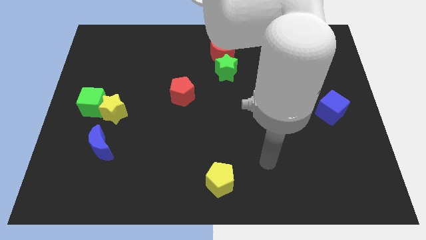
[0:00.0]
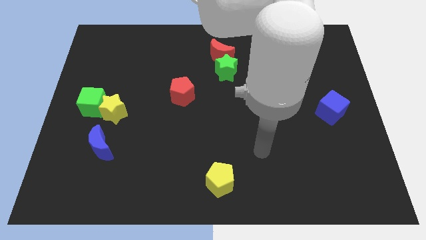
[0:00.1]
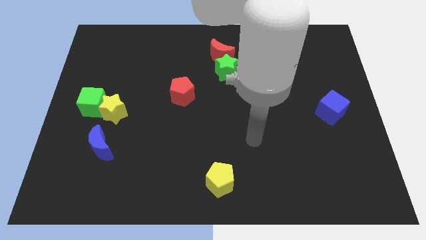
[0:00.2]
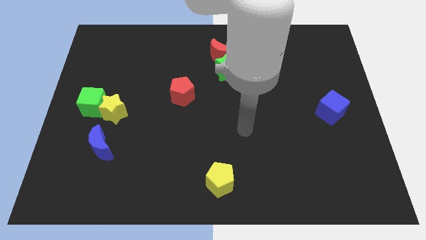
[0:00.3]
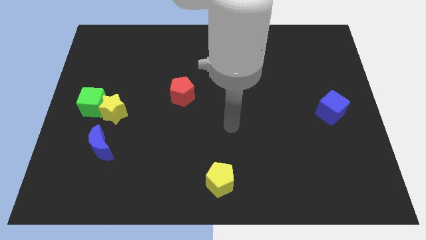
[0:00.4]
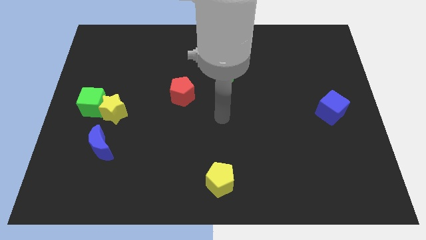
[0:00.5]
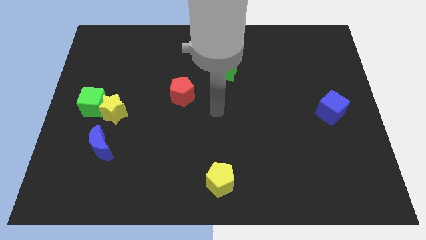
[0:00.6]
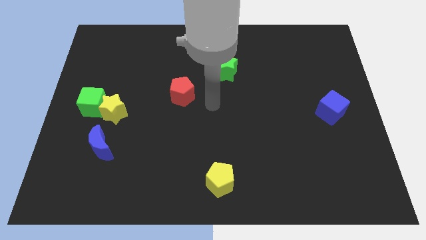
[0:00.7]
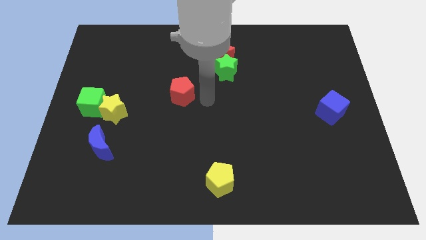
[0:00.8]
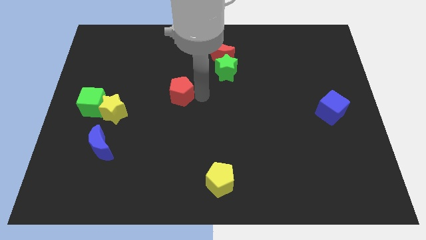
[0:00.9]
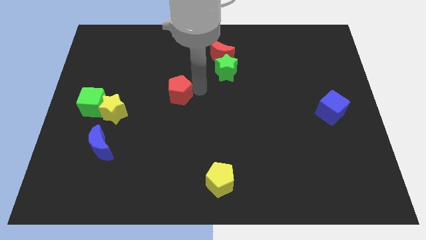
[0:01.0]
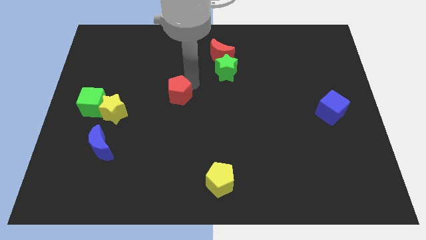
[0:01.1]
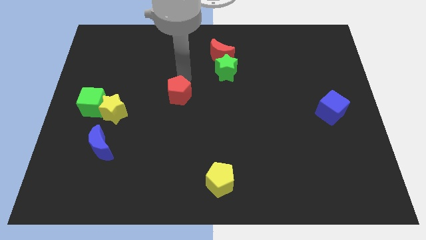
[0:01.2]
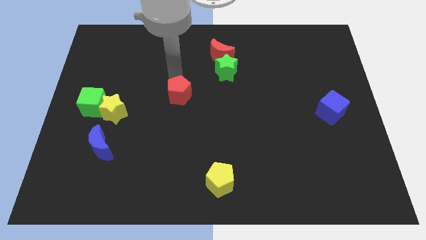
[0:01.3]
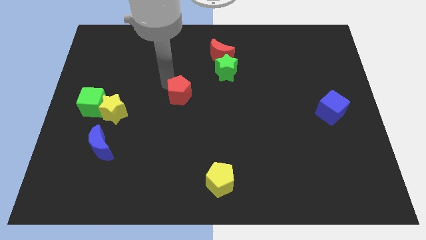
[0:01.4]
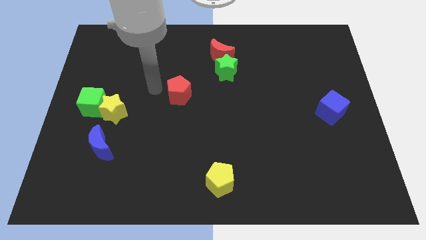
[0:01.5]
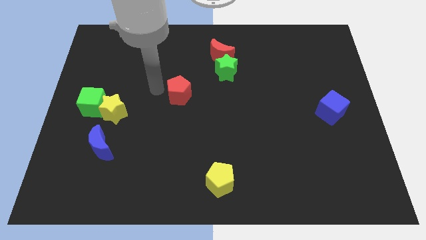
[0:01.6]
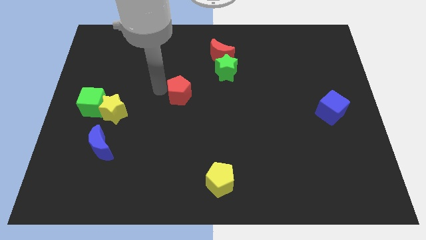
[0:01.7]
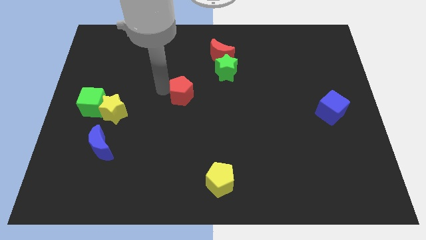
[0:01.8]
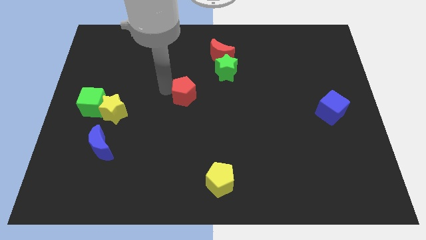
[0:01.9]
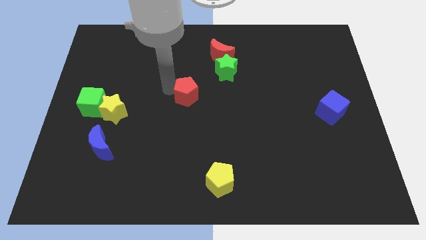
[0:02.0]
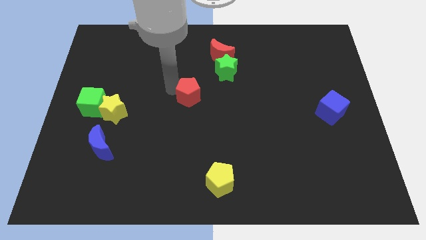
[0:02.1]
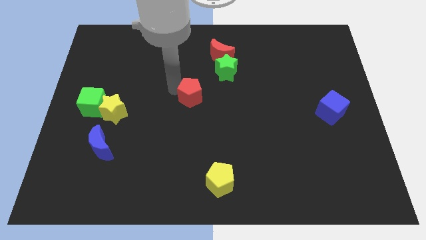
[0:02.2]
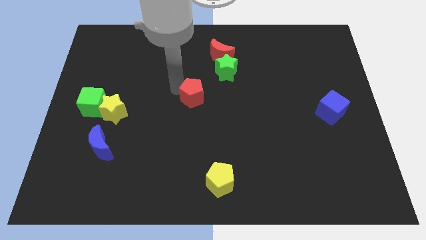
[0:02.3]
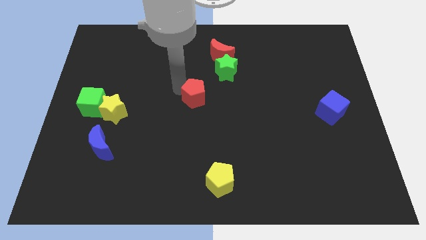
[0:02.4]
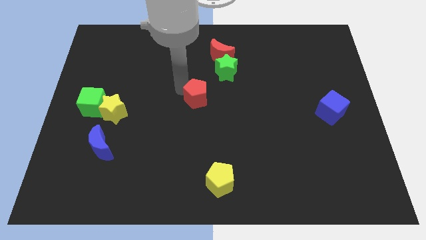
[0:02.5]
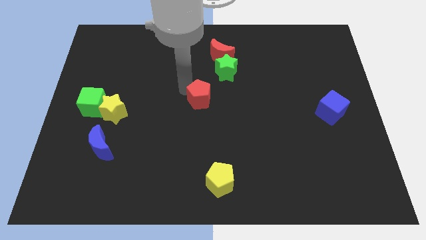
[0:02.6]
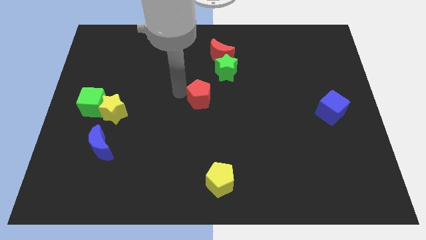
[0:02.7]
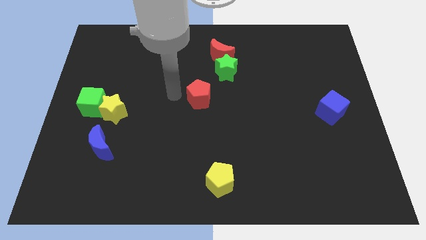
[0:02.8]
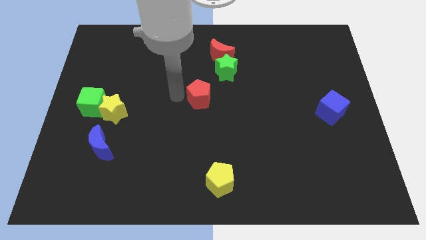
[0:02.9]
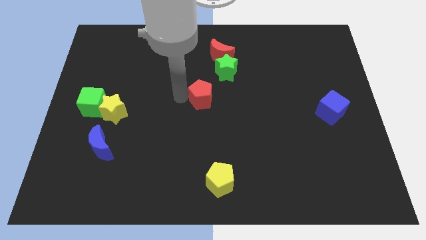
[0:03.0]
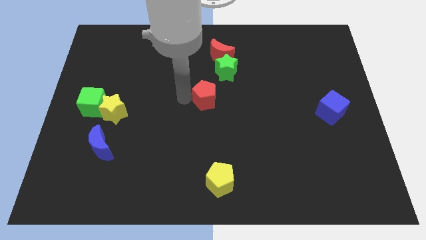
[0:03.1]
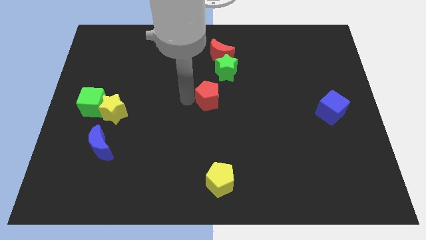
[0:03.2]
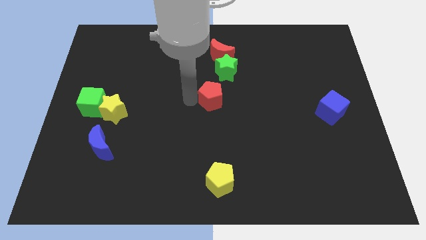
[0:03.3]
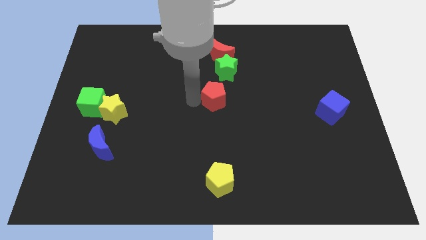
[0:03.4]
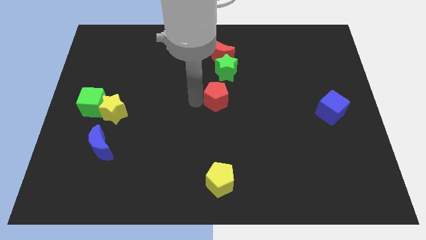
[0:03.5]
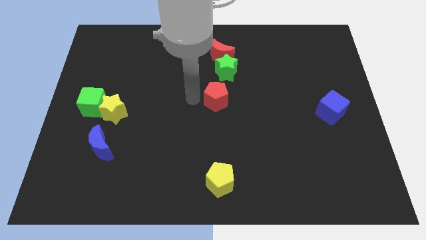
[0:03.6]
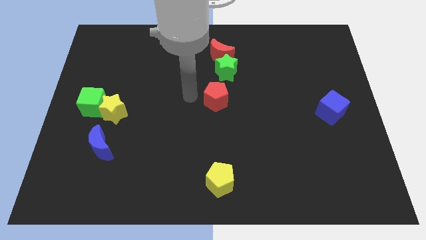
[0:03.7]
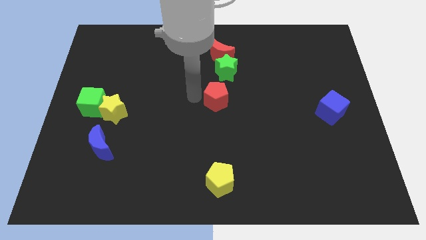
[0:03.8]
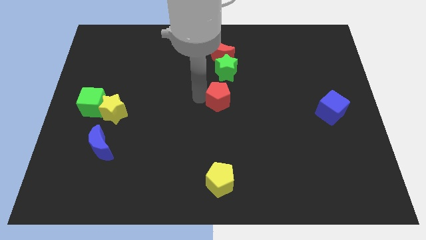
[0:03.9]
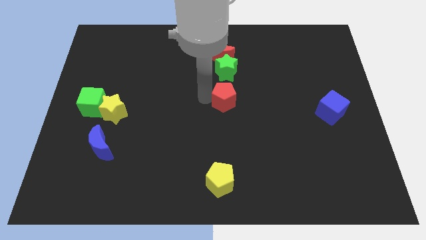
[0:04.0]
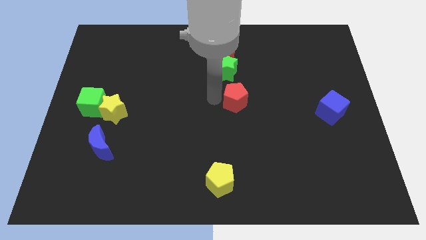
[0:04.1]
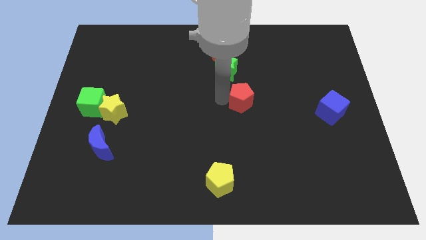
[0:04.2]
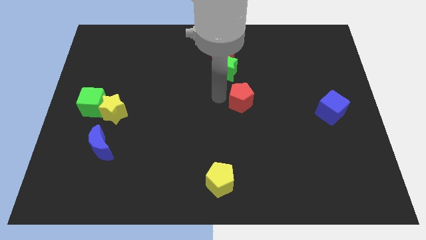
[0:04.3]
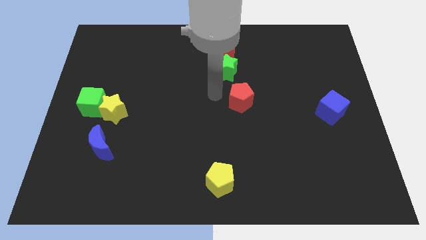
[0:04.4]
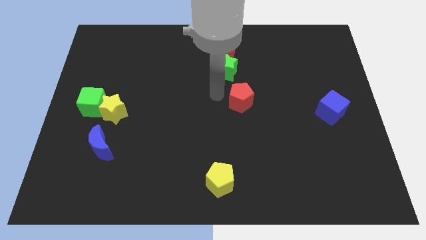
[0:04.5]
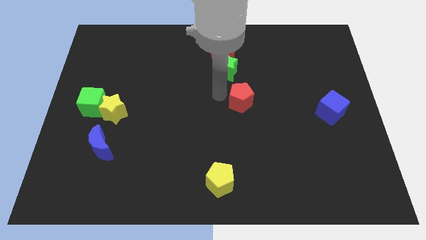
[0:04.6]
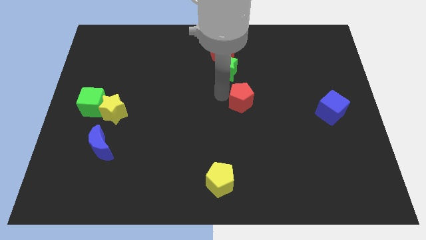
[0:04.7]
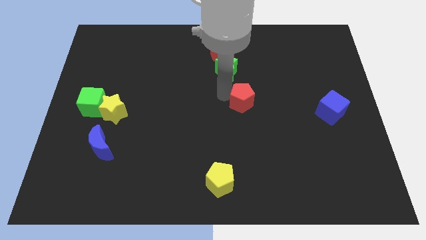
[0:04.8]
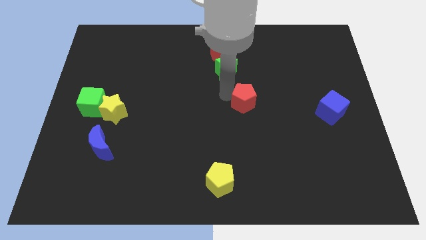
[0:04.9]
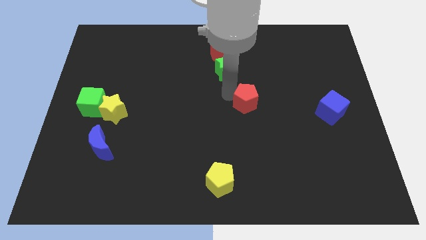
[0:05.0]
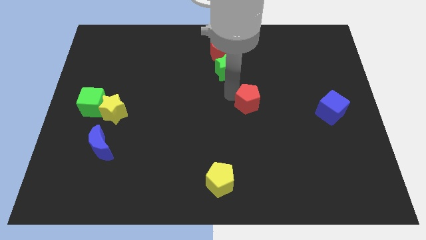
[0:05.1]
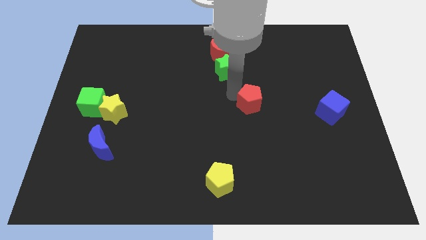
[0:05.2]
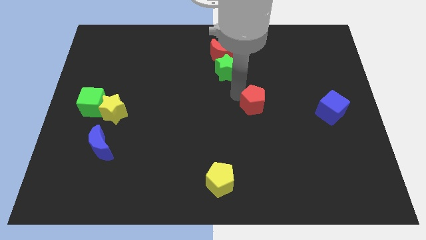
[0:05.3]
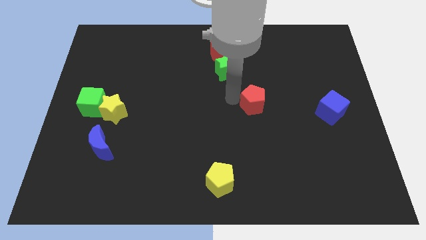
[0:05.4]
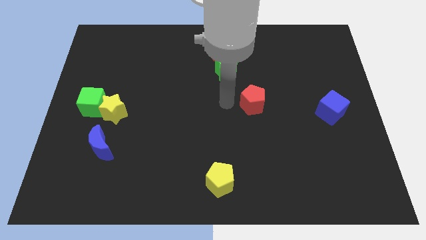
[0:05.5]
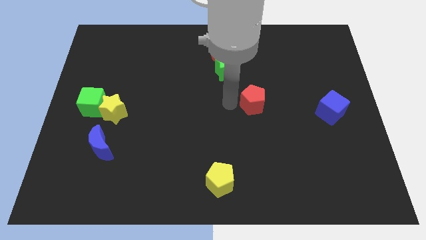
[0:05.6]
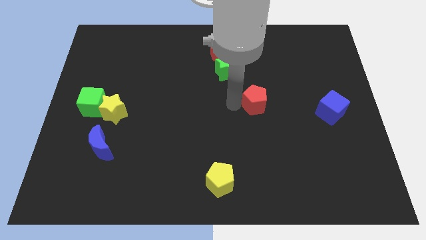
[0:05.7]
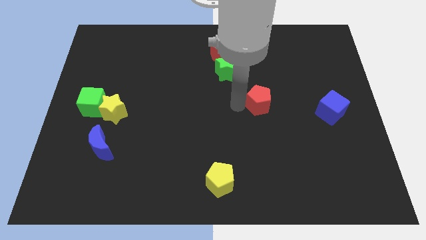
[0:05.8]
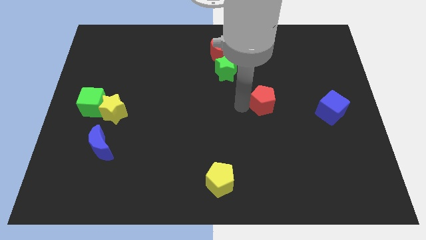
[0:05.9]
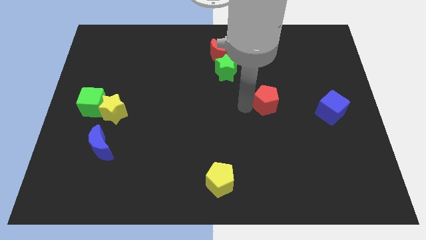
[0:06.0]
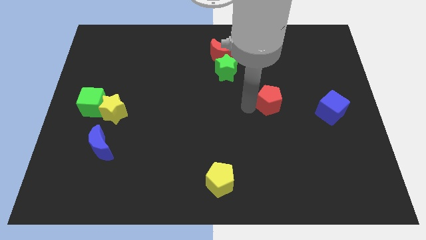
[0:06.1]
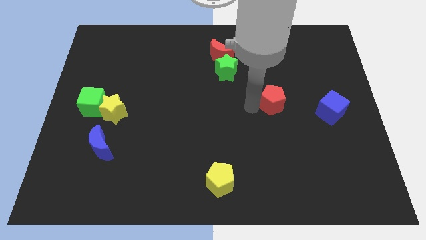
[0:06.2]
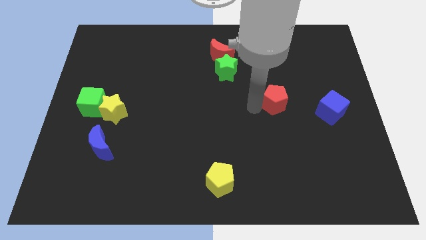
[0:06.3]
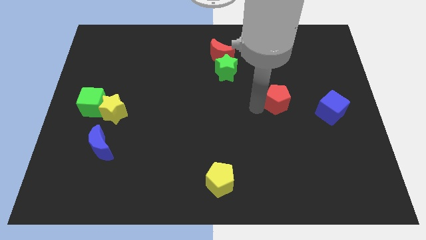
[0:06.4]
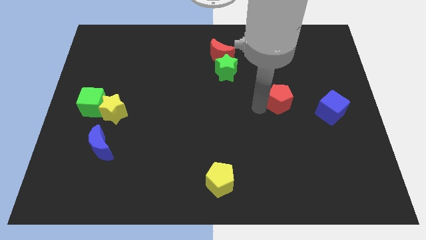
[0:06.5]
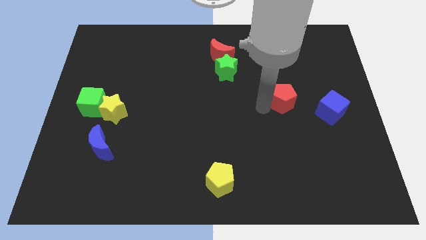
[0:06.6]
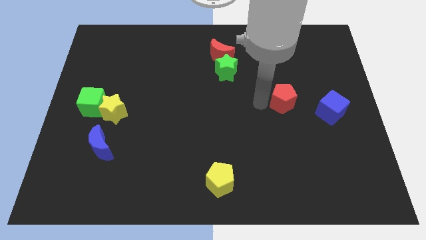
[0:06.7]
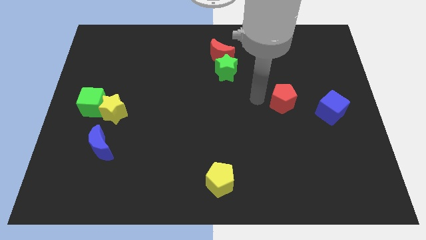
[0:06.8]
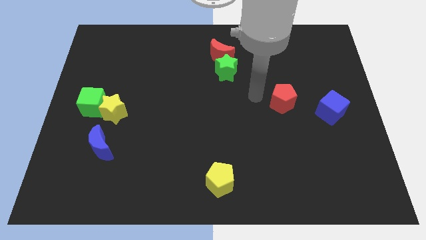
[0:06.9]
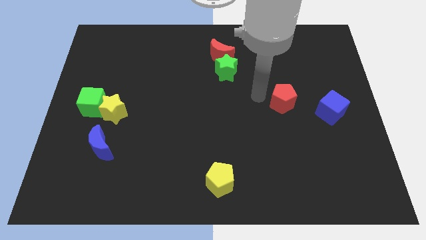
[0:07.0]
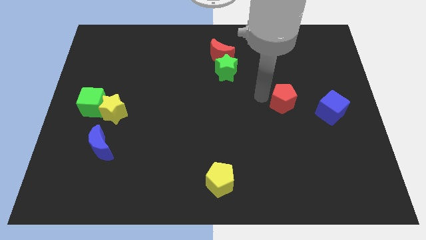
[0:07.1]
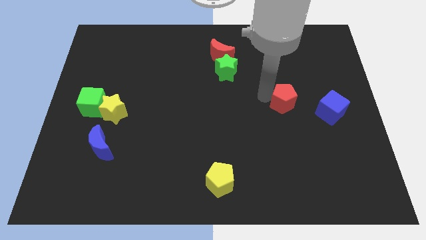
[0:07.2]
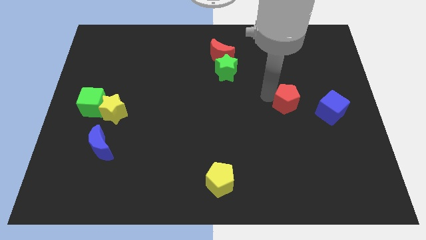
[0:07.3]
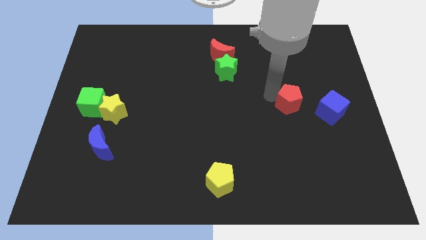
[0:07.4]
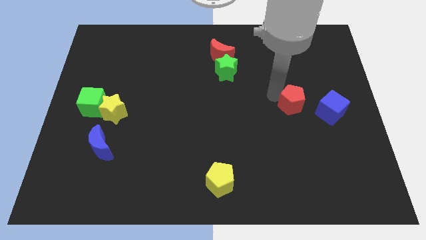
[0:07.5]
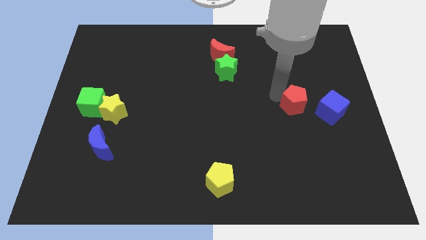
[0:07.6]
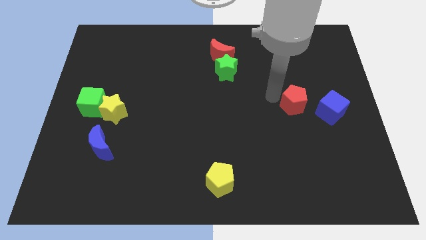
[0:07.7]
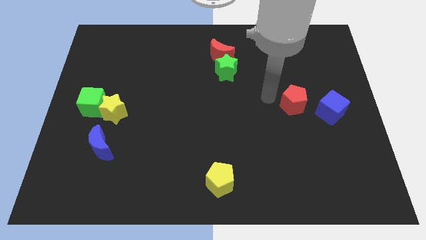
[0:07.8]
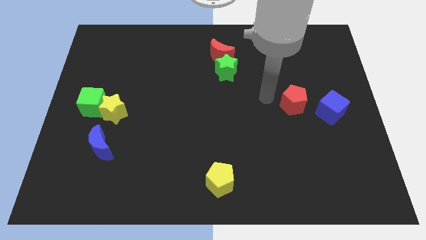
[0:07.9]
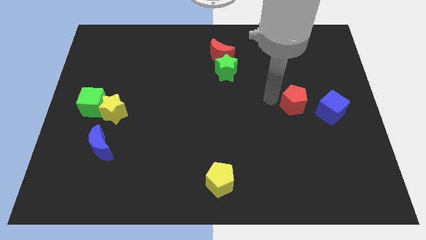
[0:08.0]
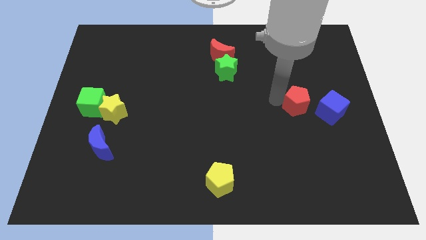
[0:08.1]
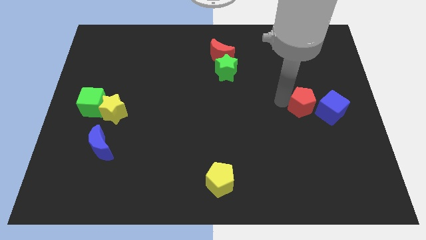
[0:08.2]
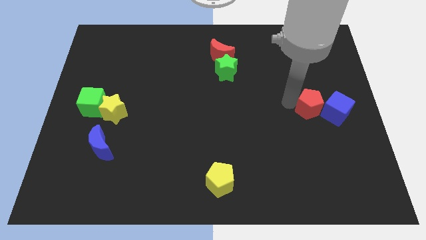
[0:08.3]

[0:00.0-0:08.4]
push the red pentagon close to the blue cube
